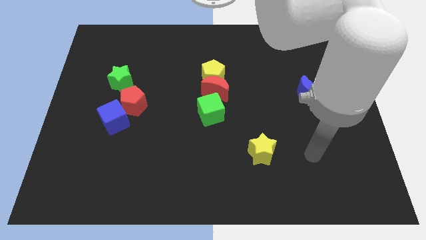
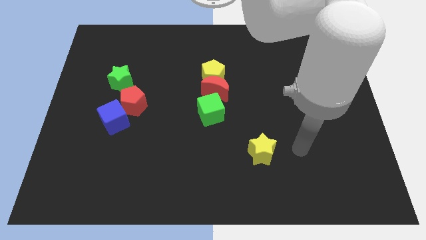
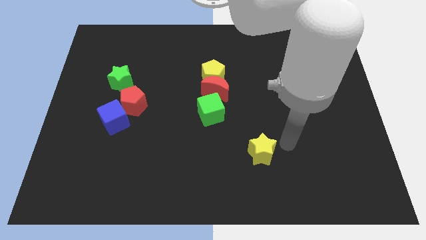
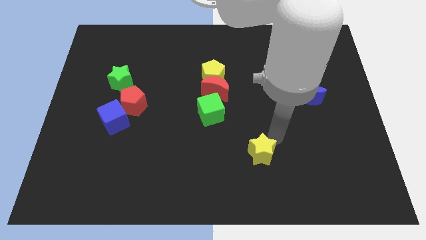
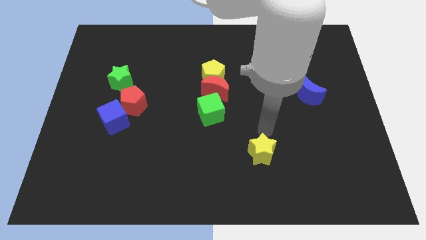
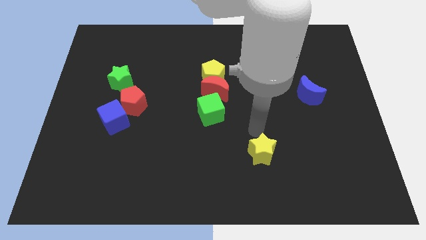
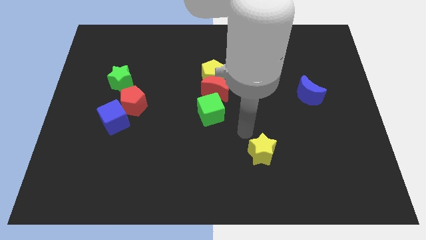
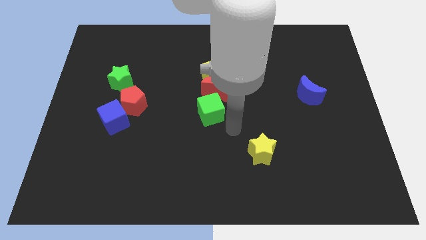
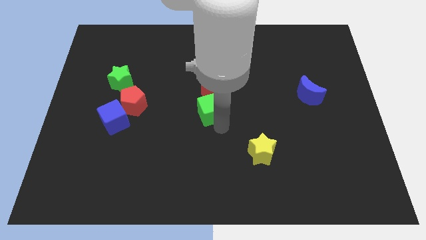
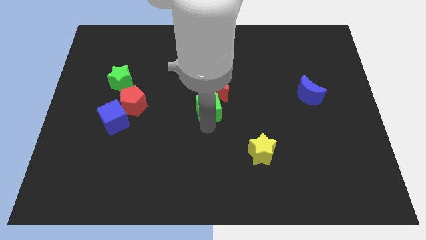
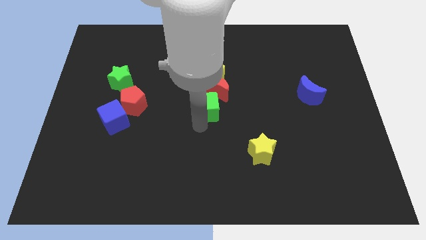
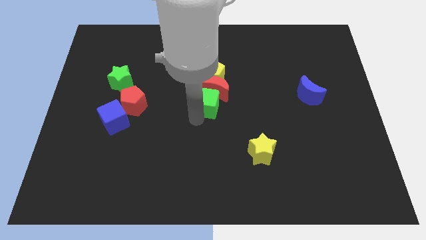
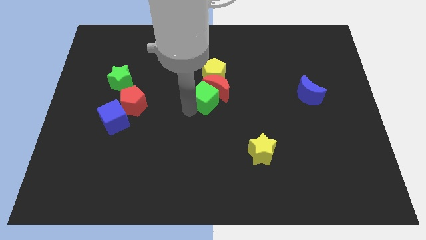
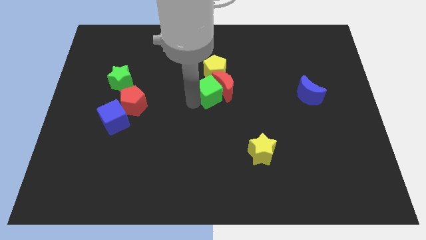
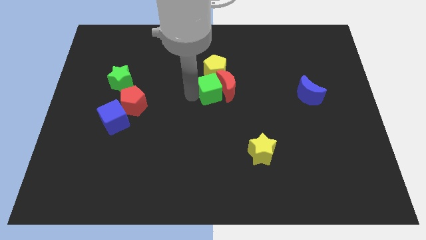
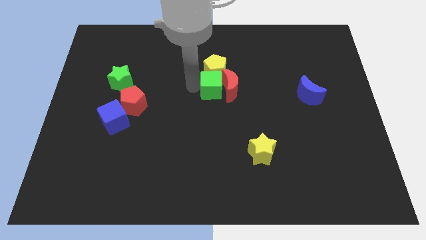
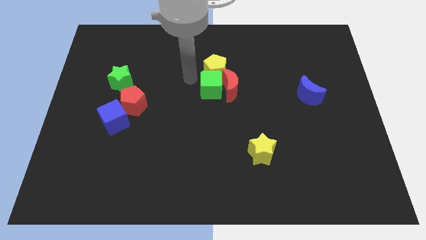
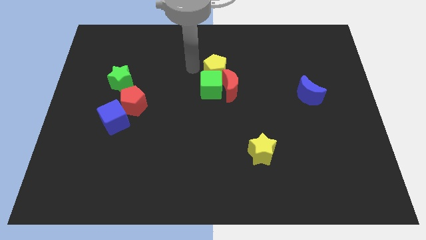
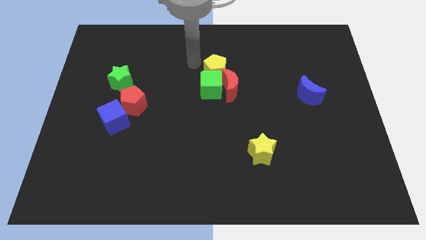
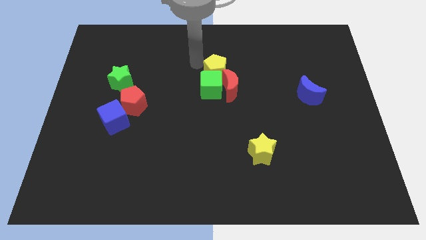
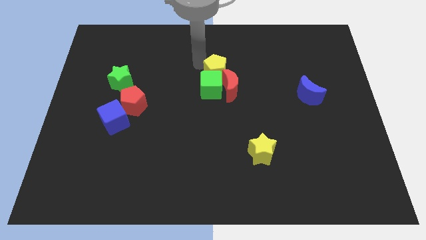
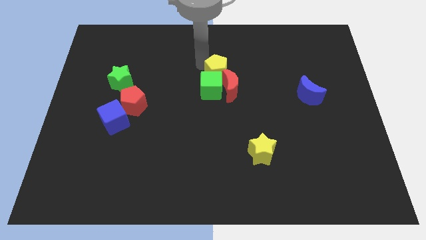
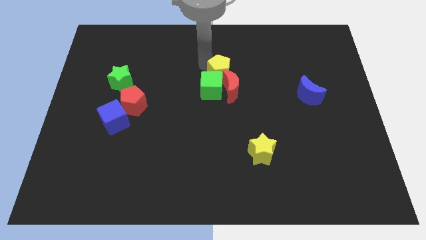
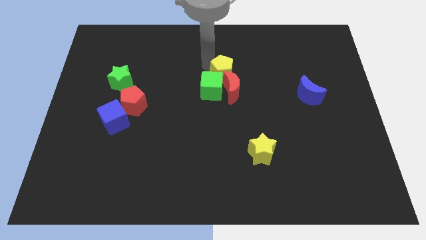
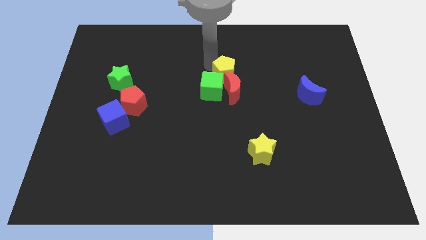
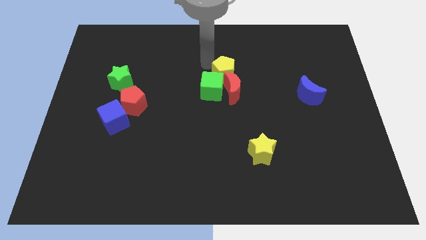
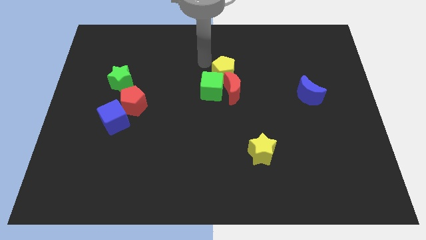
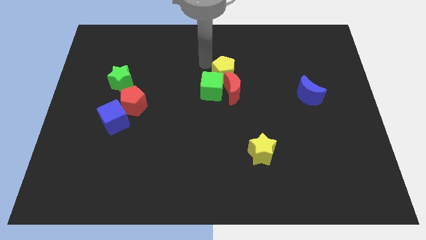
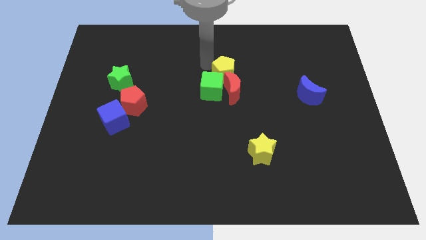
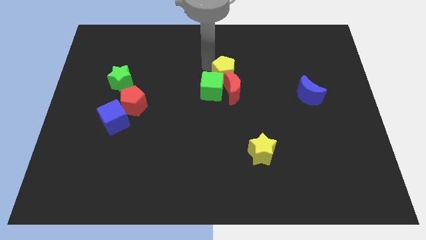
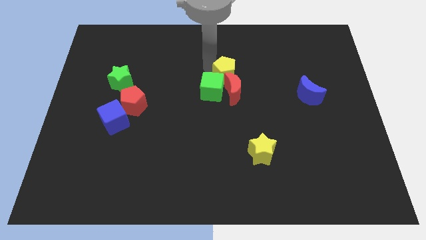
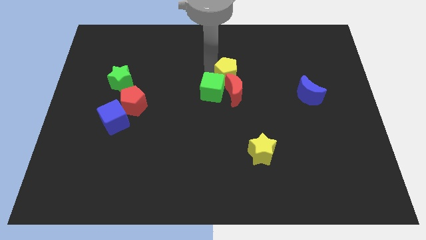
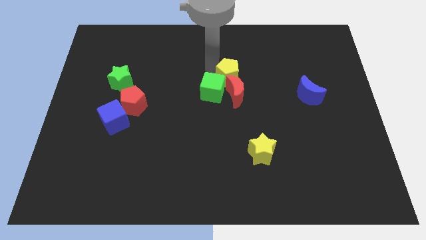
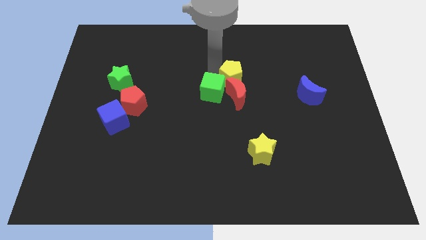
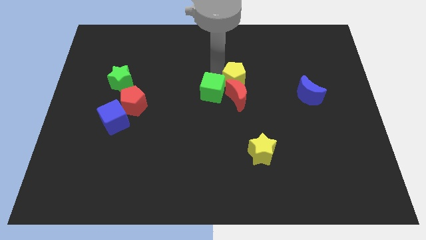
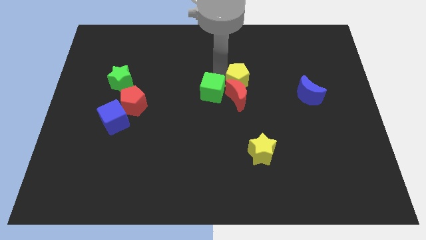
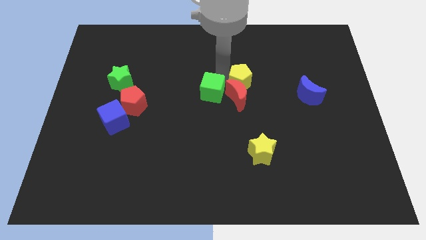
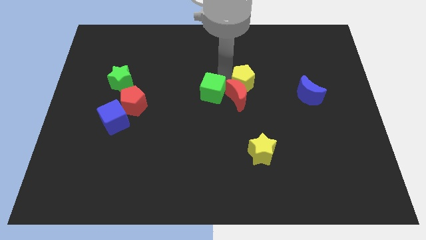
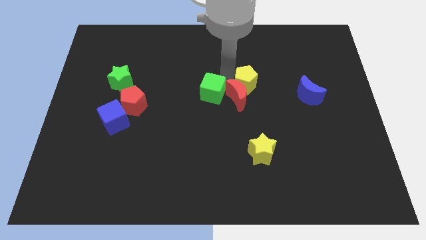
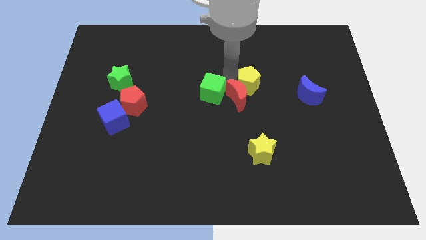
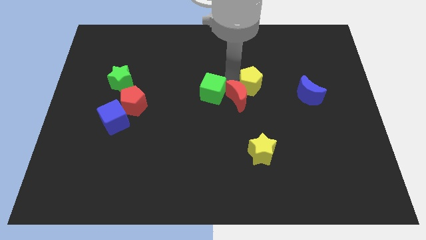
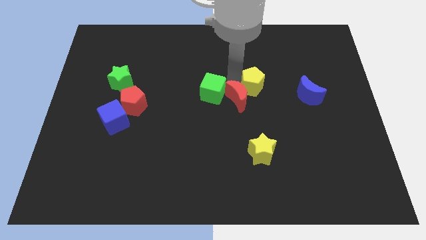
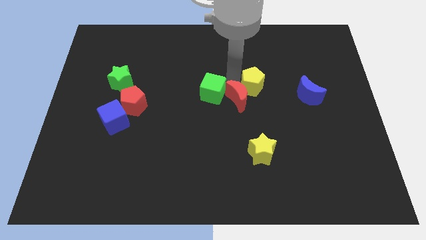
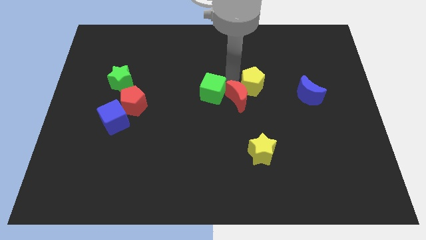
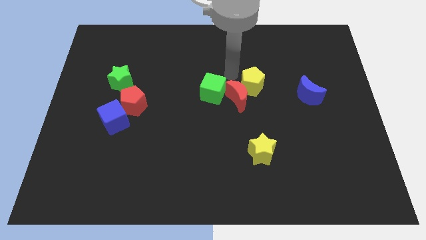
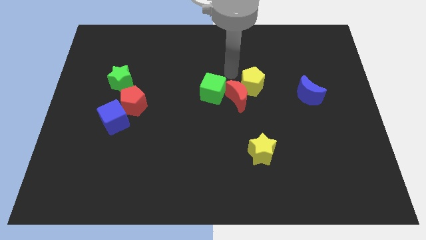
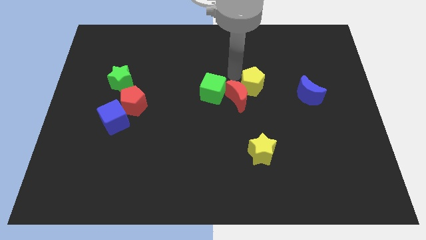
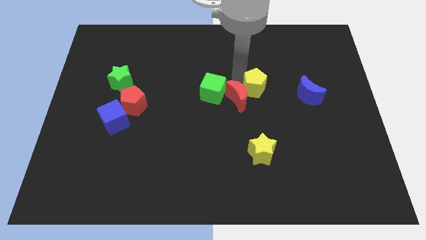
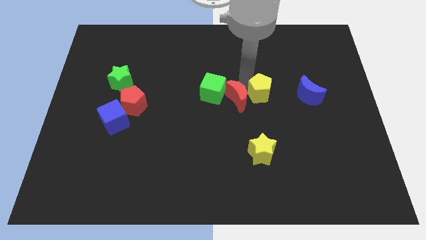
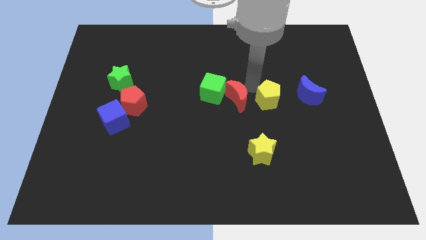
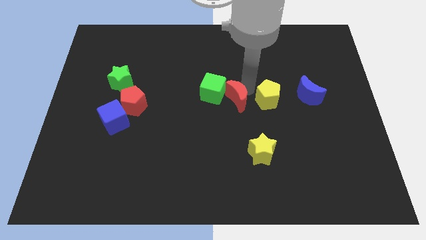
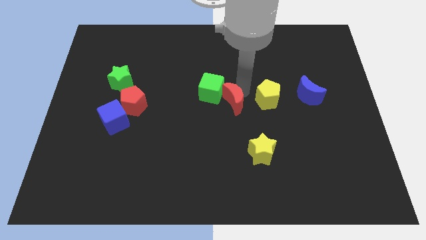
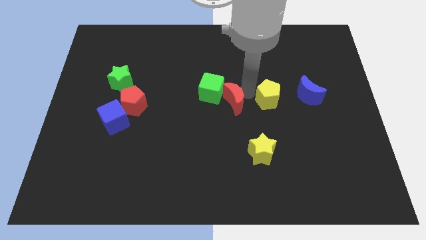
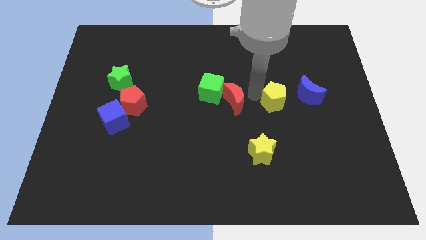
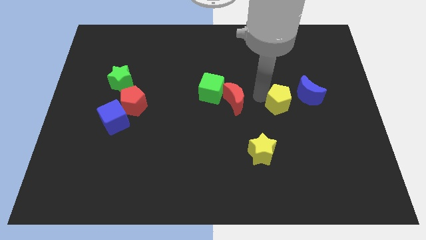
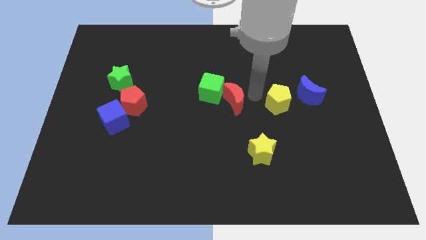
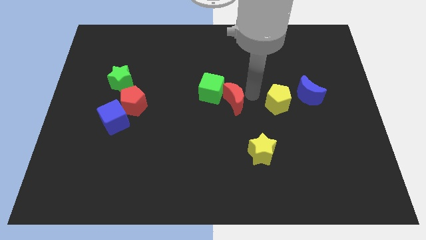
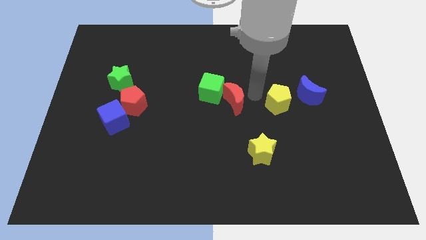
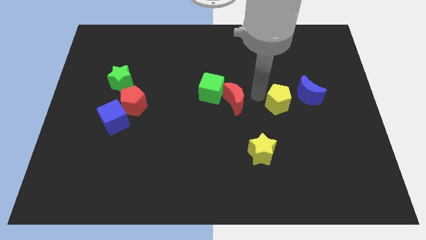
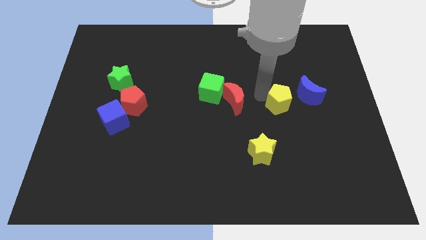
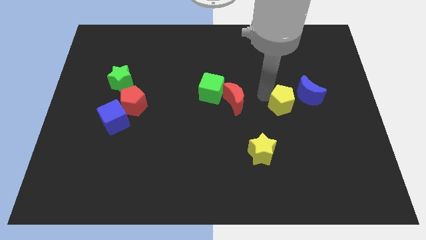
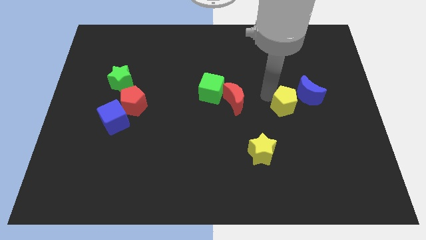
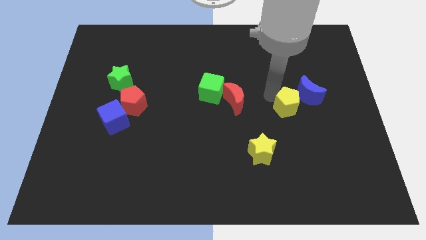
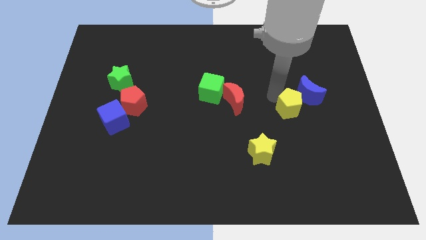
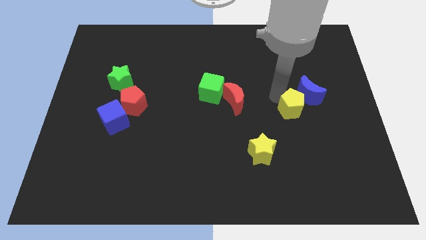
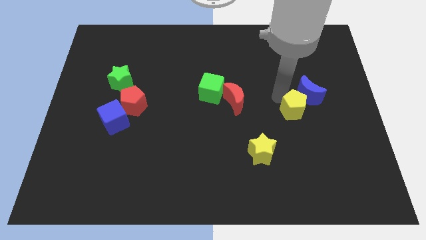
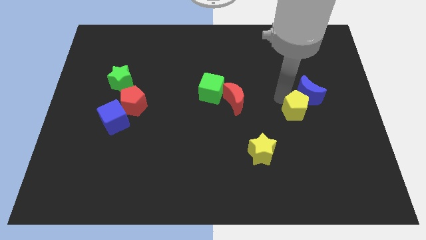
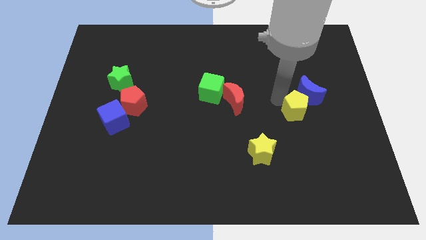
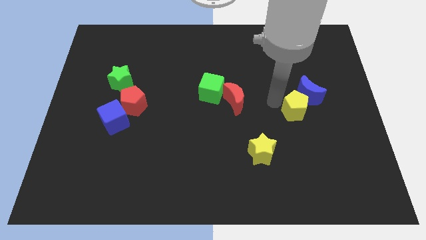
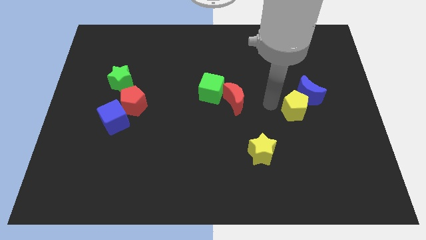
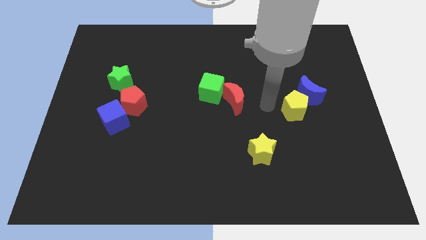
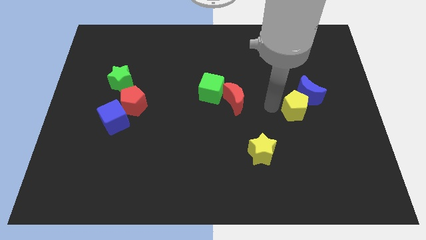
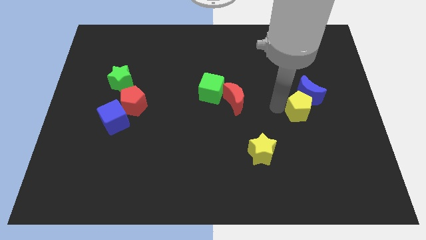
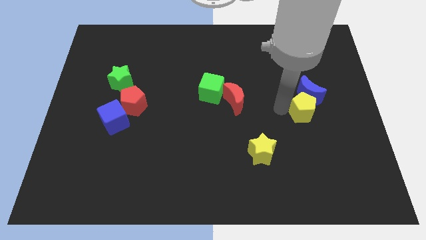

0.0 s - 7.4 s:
move the yellow pentagon to the bottom right side of the blue moon

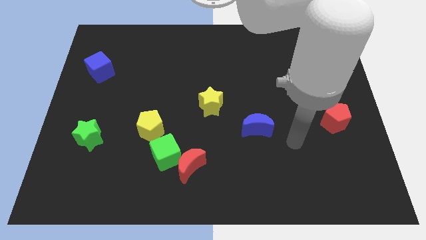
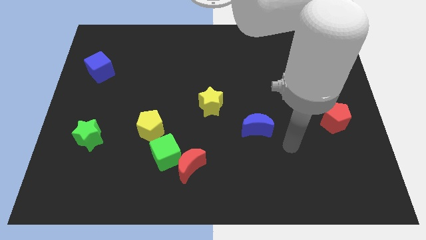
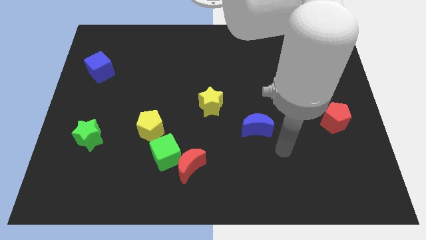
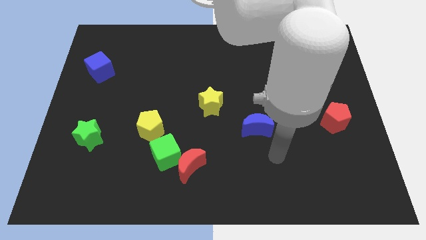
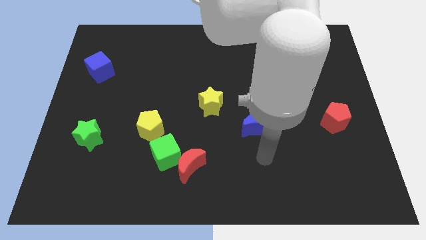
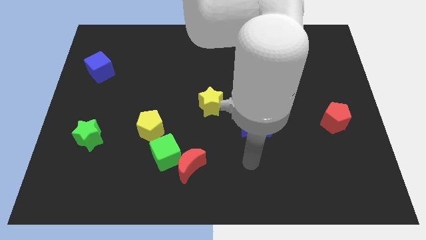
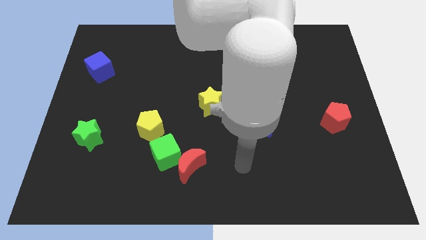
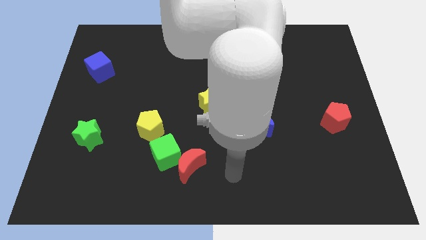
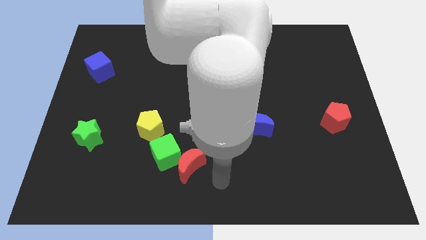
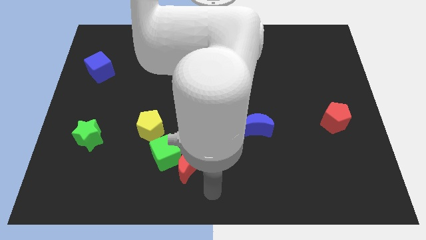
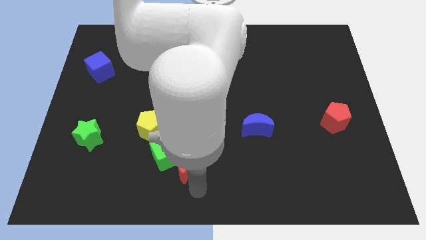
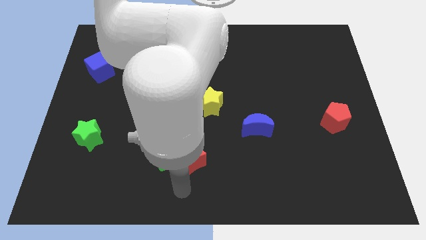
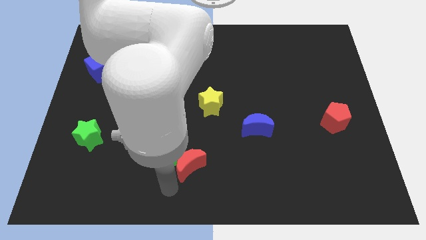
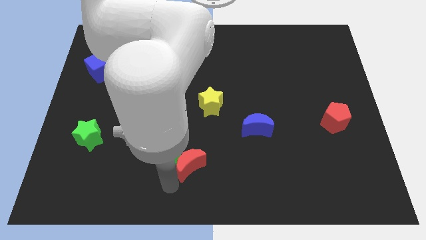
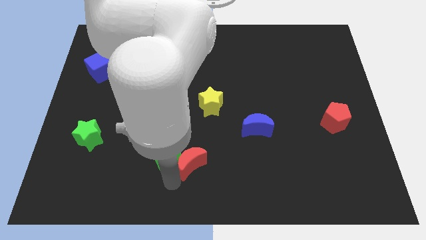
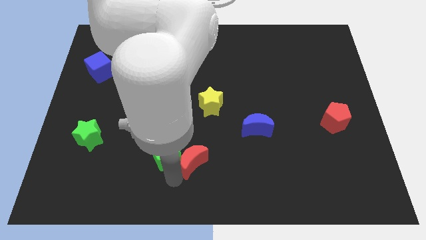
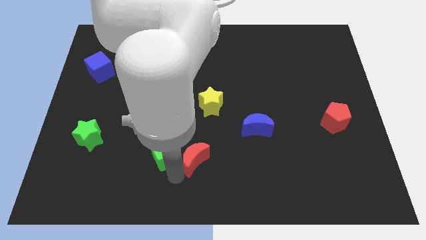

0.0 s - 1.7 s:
slide the red moon to the bottom side of the yellow star
